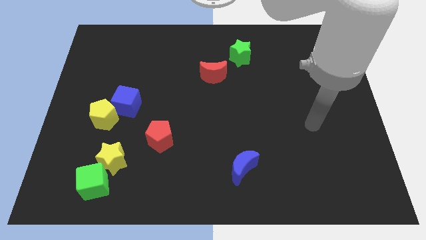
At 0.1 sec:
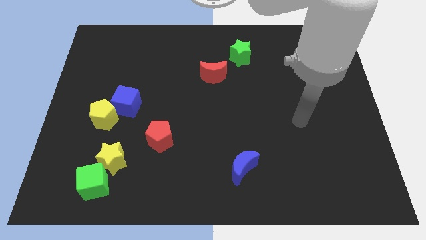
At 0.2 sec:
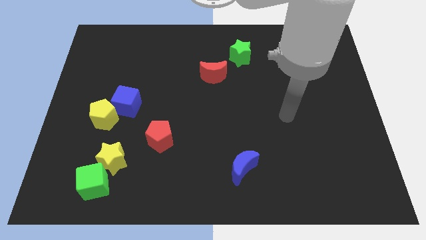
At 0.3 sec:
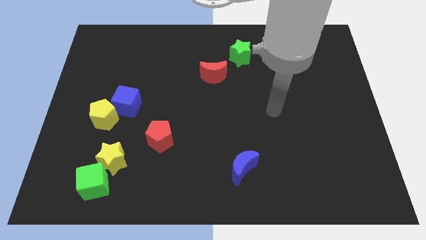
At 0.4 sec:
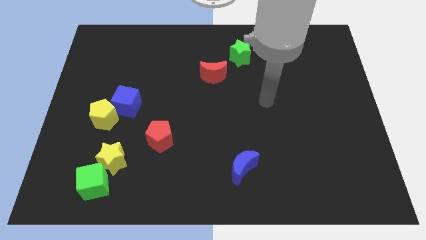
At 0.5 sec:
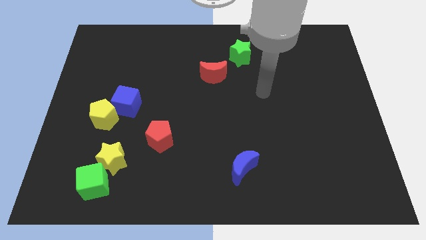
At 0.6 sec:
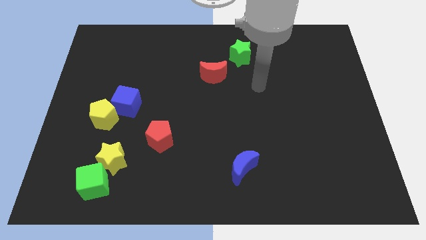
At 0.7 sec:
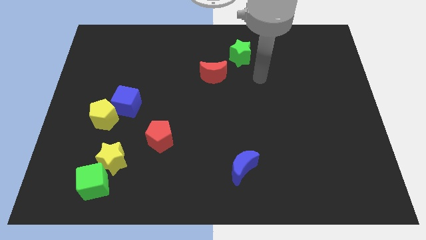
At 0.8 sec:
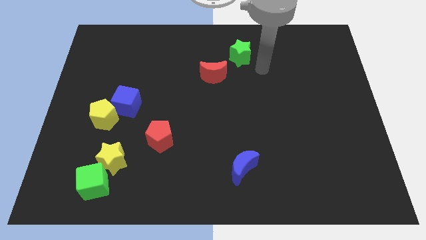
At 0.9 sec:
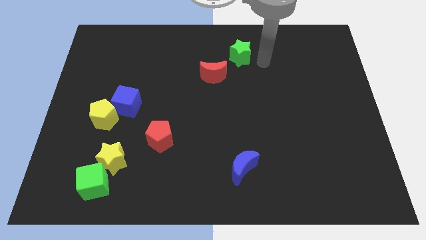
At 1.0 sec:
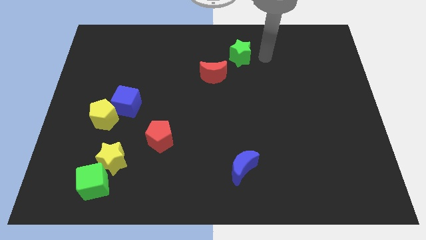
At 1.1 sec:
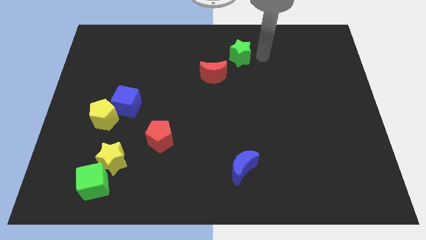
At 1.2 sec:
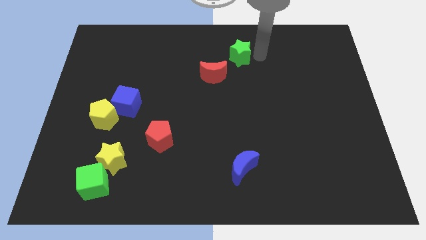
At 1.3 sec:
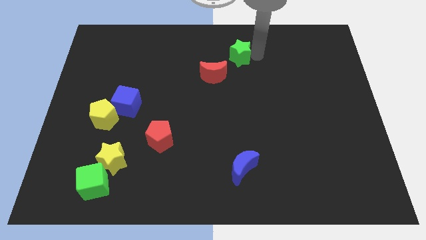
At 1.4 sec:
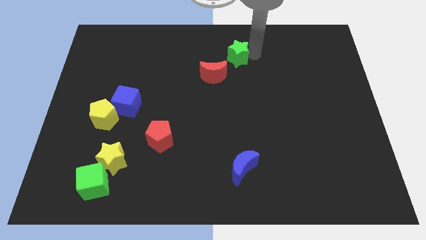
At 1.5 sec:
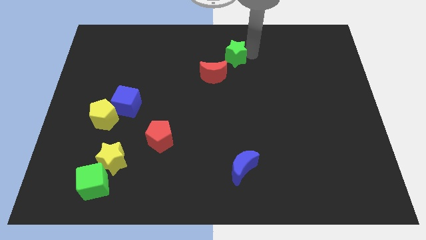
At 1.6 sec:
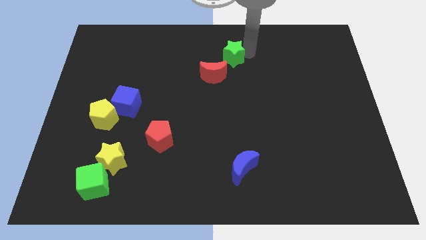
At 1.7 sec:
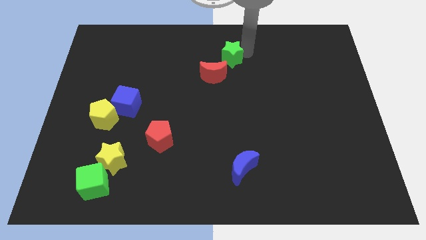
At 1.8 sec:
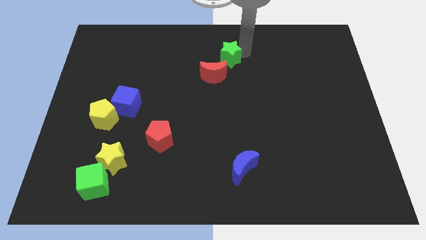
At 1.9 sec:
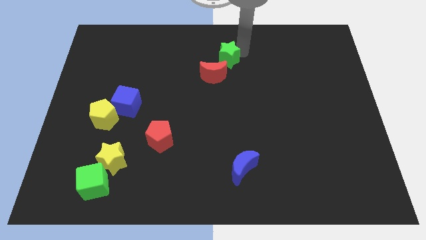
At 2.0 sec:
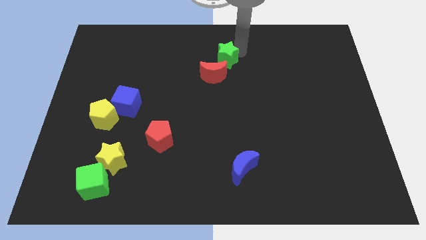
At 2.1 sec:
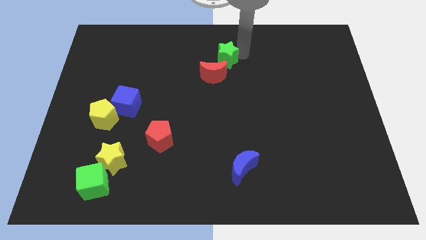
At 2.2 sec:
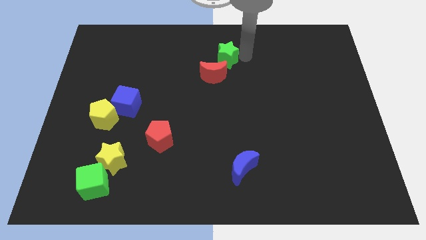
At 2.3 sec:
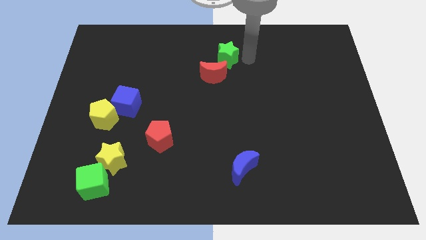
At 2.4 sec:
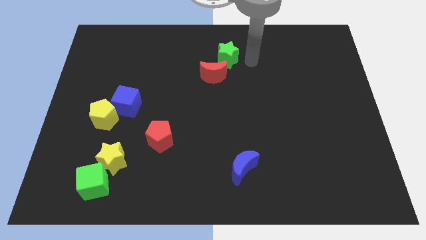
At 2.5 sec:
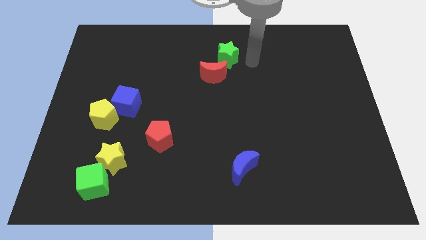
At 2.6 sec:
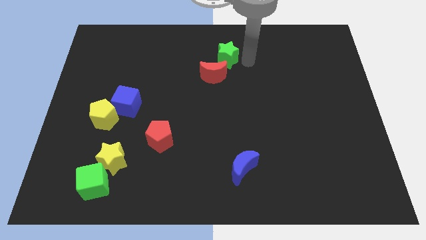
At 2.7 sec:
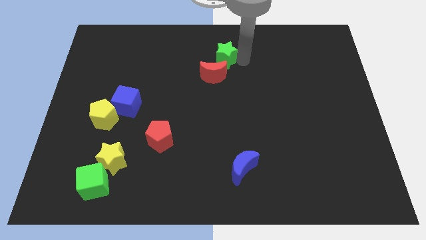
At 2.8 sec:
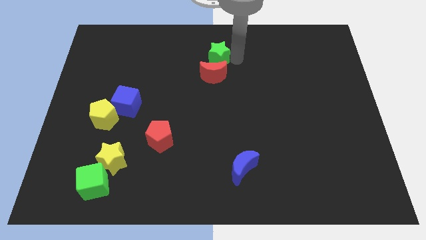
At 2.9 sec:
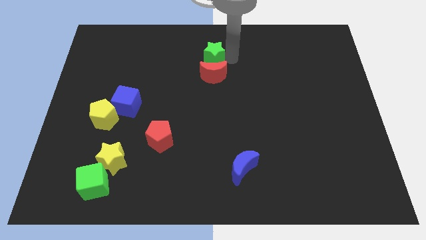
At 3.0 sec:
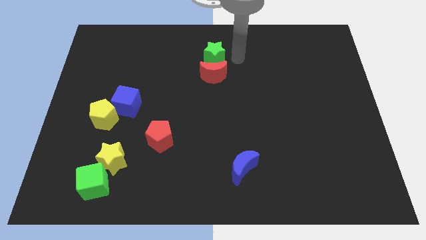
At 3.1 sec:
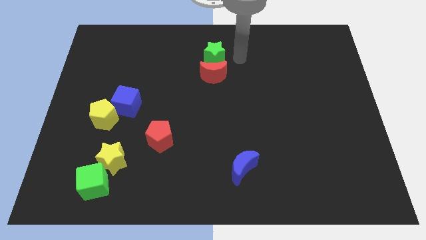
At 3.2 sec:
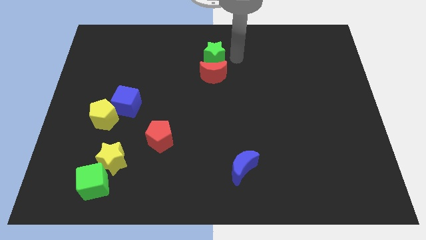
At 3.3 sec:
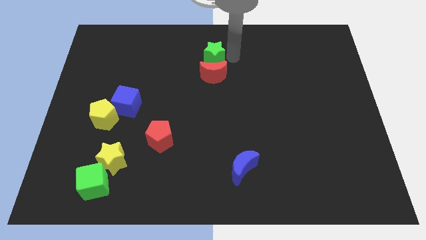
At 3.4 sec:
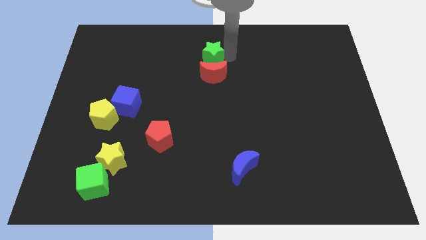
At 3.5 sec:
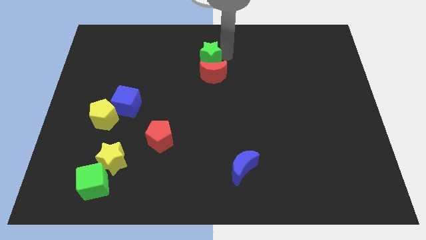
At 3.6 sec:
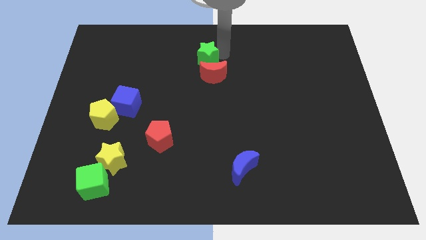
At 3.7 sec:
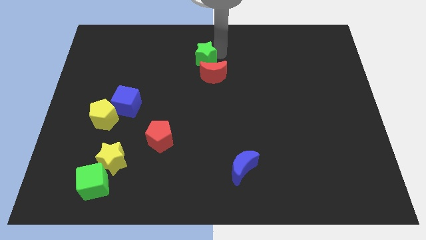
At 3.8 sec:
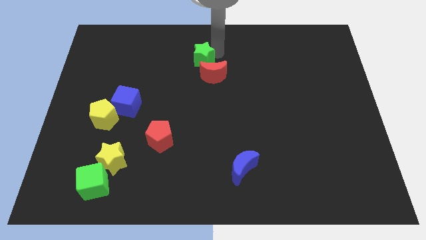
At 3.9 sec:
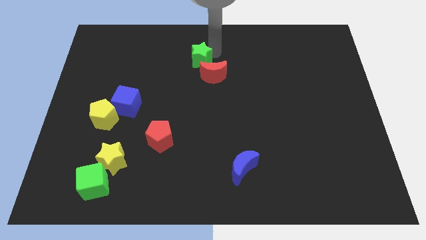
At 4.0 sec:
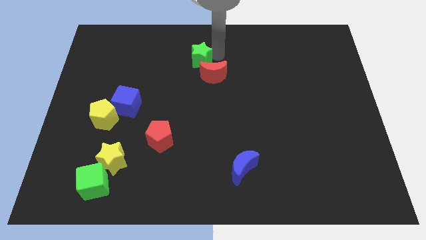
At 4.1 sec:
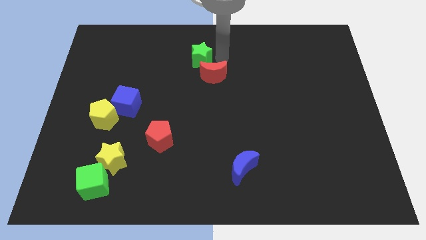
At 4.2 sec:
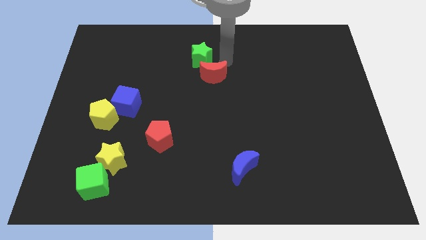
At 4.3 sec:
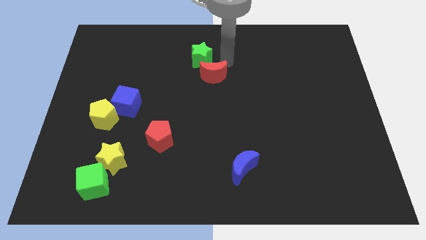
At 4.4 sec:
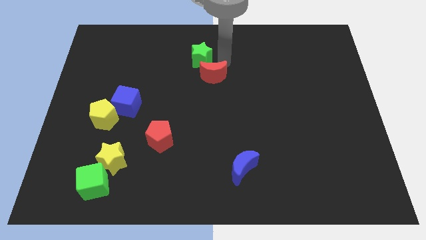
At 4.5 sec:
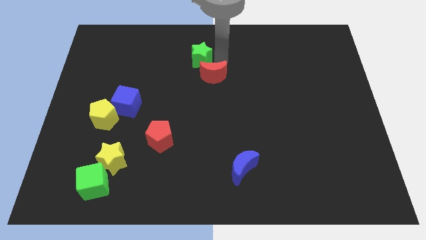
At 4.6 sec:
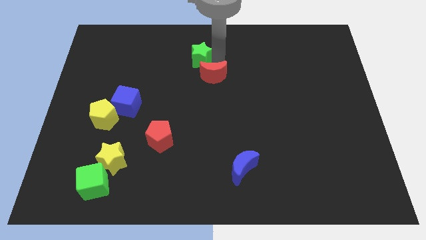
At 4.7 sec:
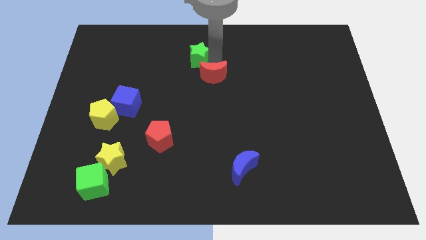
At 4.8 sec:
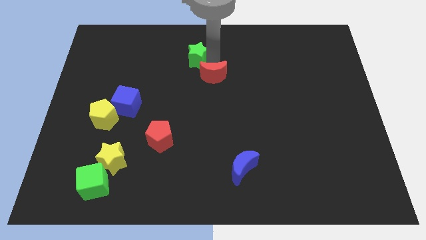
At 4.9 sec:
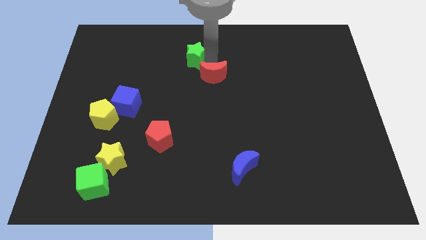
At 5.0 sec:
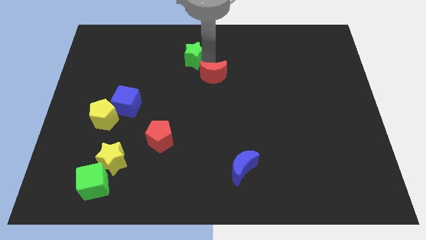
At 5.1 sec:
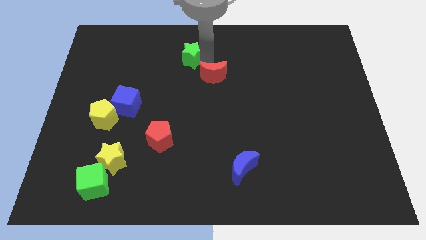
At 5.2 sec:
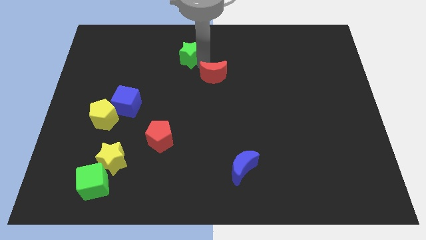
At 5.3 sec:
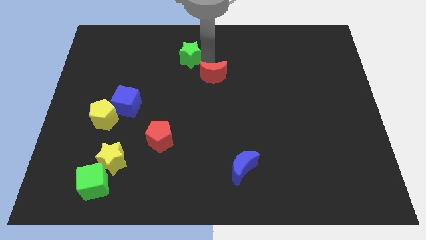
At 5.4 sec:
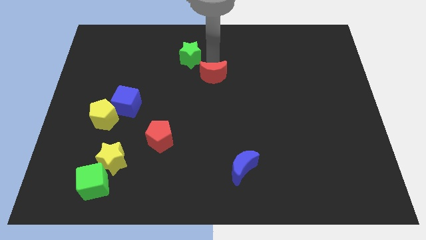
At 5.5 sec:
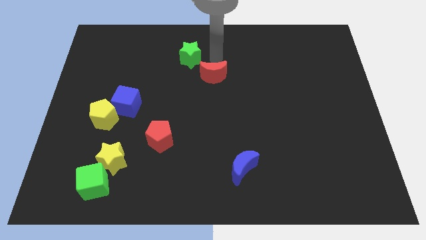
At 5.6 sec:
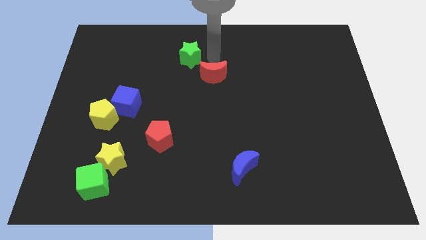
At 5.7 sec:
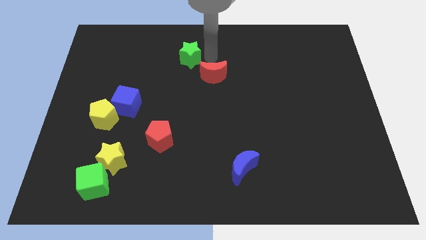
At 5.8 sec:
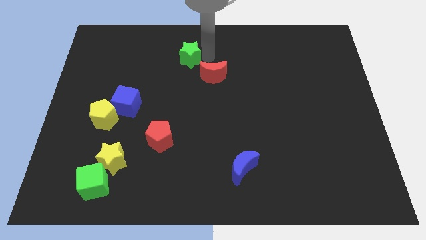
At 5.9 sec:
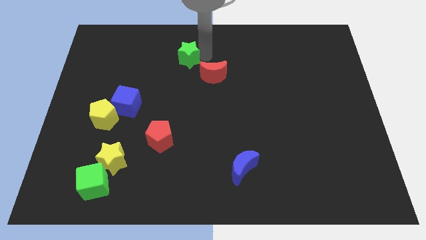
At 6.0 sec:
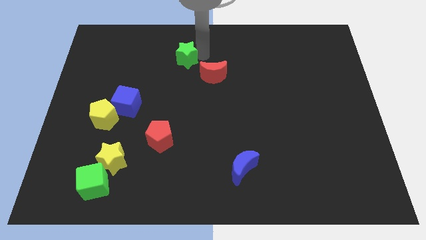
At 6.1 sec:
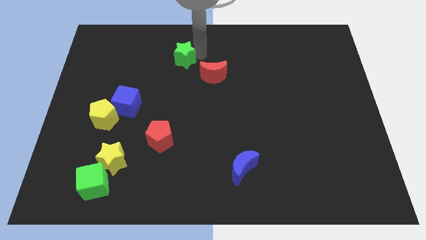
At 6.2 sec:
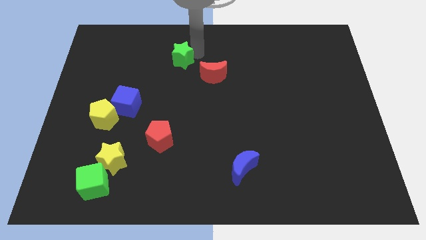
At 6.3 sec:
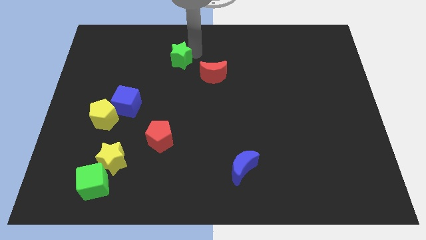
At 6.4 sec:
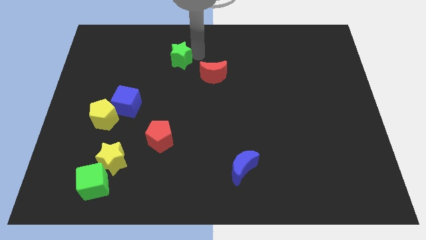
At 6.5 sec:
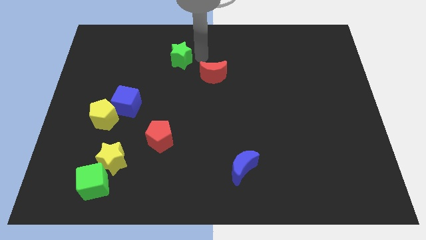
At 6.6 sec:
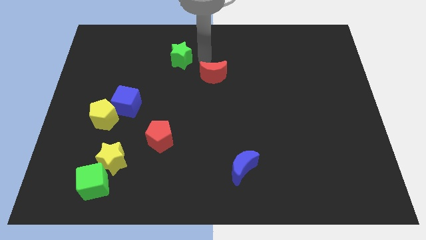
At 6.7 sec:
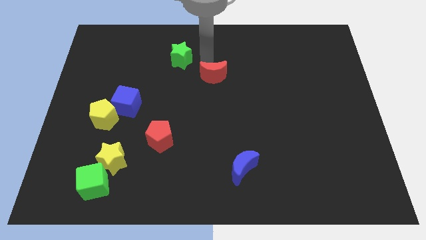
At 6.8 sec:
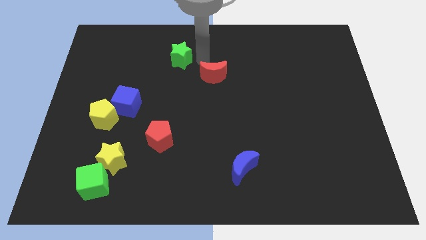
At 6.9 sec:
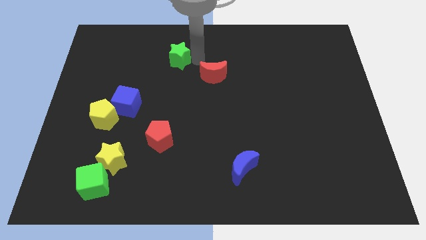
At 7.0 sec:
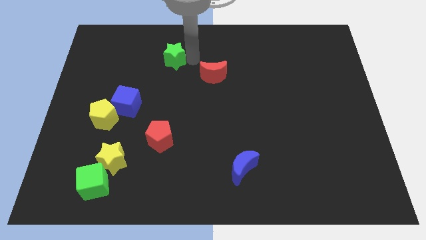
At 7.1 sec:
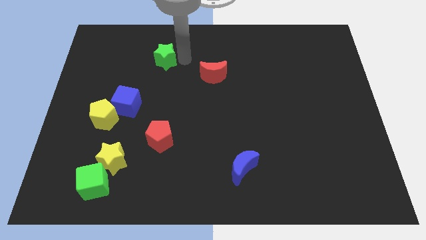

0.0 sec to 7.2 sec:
slide the green star left

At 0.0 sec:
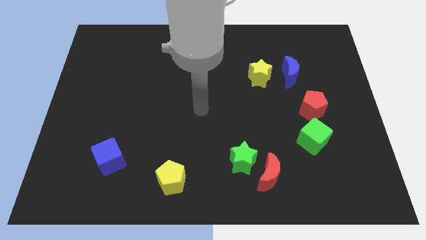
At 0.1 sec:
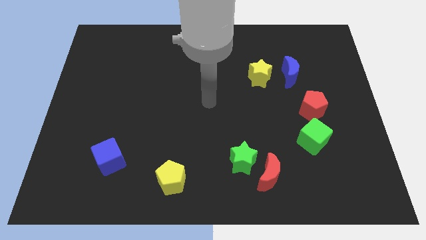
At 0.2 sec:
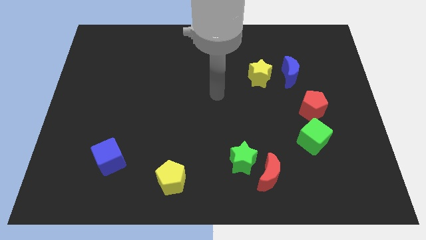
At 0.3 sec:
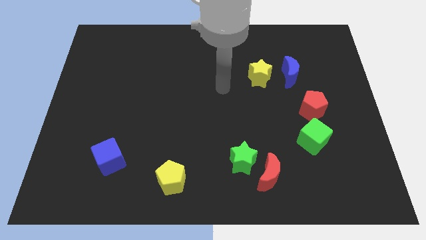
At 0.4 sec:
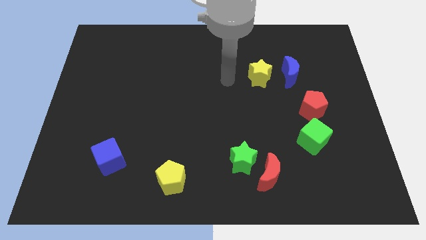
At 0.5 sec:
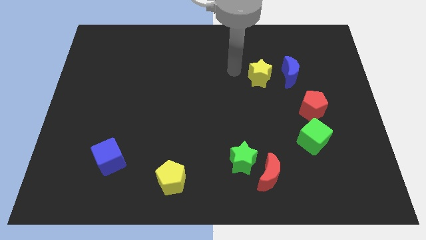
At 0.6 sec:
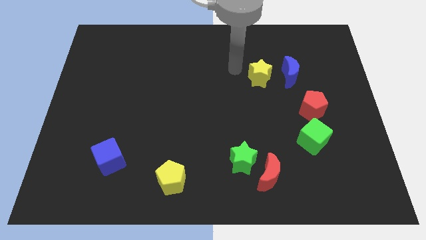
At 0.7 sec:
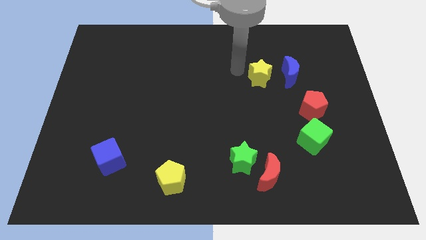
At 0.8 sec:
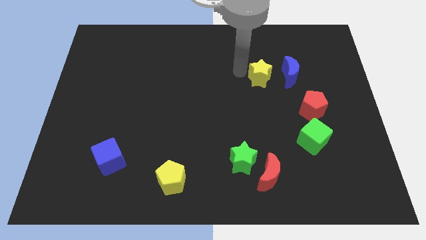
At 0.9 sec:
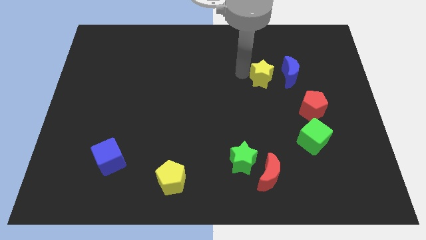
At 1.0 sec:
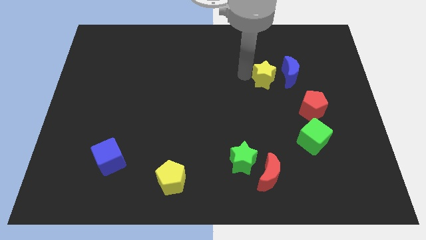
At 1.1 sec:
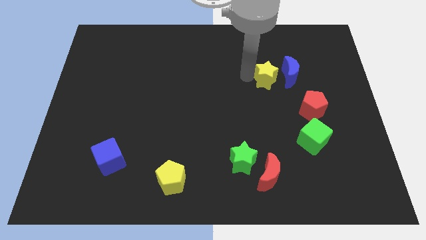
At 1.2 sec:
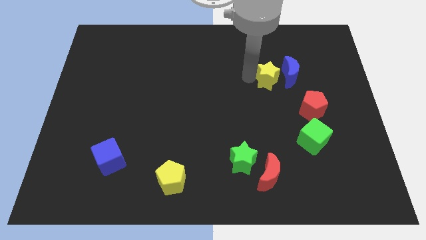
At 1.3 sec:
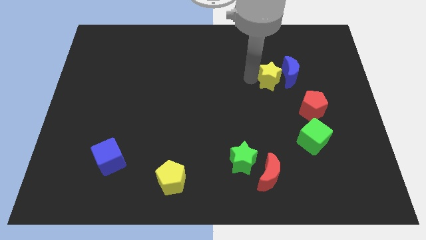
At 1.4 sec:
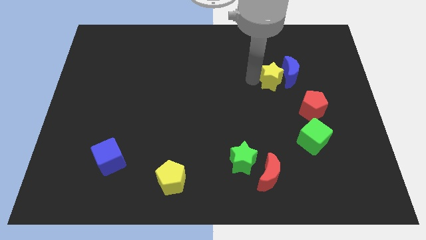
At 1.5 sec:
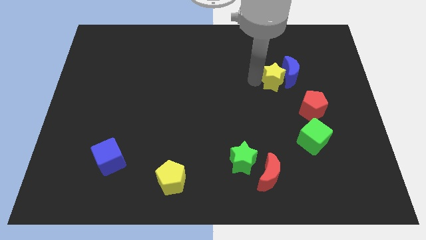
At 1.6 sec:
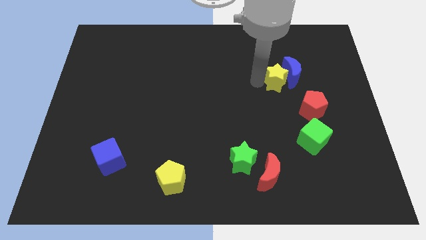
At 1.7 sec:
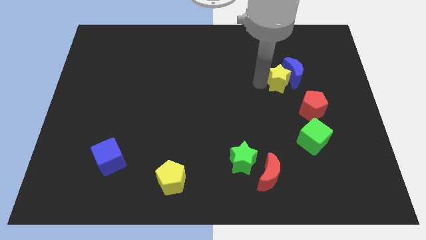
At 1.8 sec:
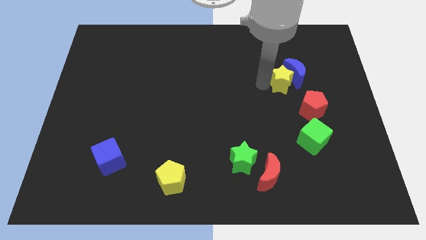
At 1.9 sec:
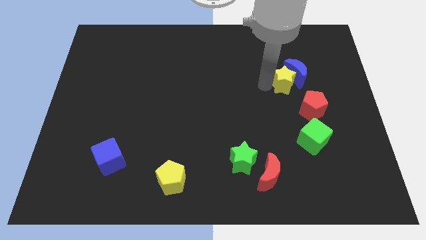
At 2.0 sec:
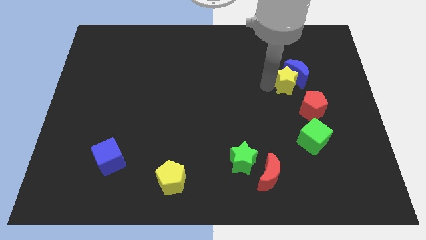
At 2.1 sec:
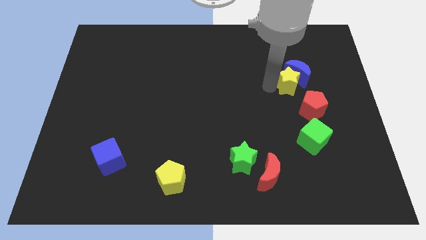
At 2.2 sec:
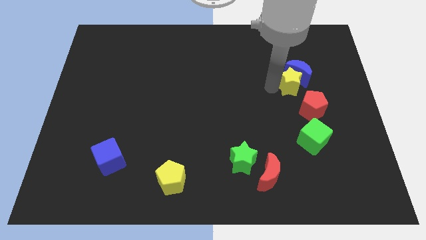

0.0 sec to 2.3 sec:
push the yellow star somewhat down and then right
